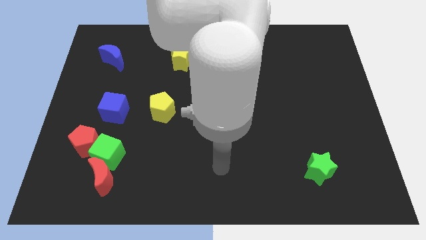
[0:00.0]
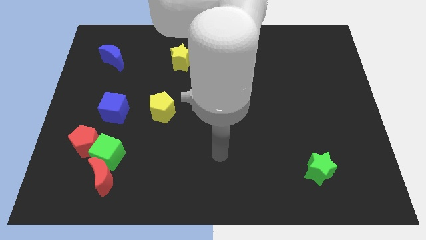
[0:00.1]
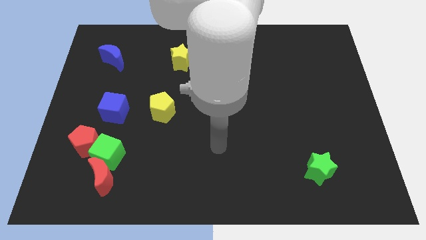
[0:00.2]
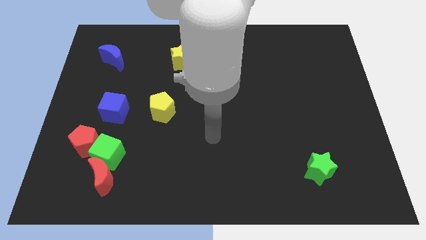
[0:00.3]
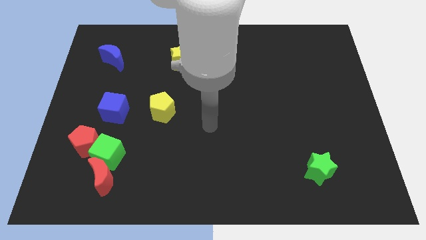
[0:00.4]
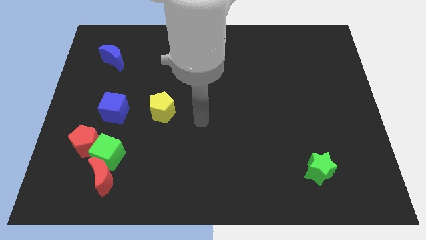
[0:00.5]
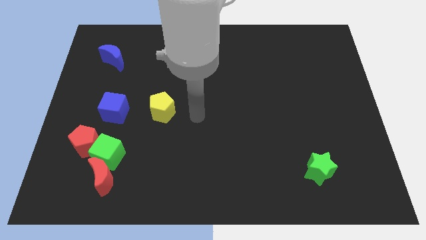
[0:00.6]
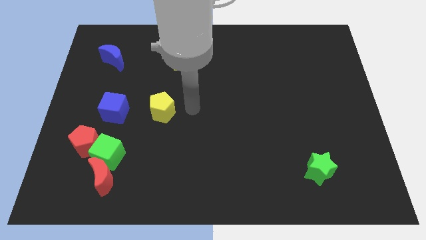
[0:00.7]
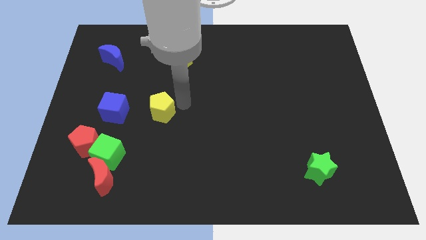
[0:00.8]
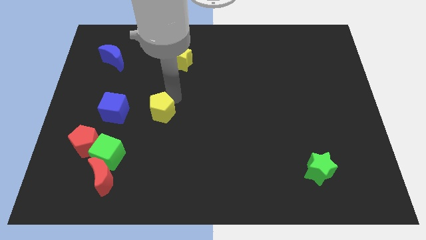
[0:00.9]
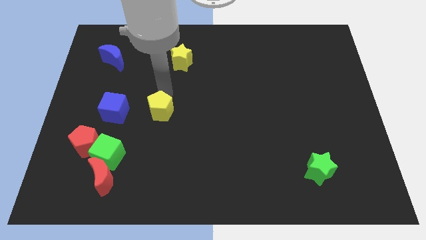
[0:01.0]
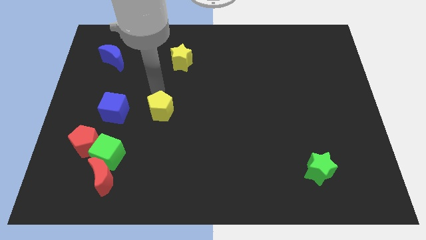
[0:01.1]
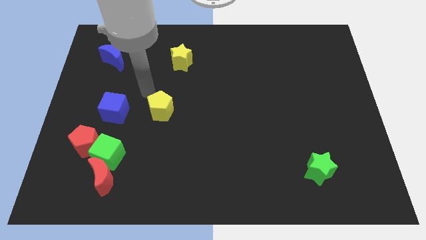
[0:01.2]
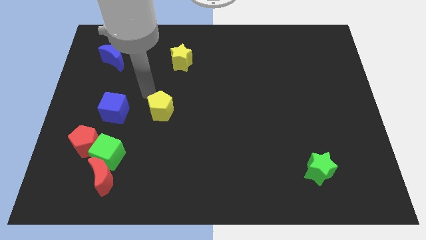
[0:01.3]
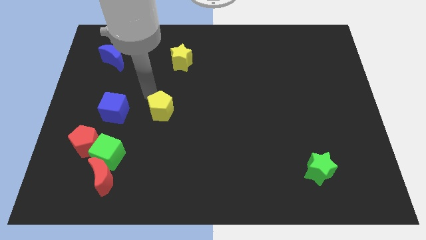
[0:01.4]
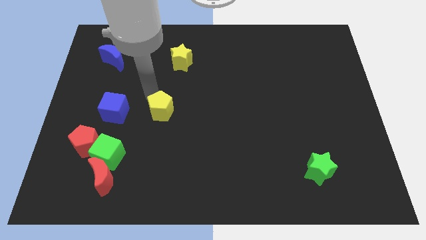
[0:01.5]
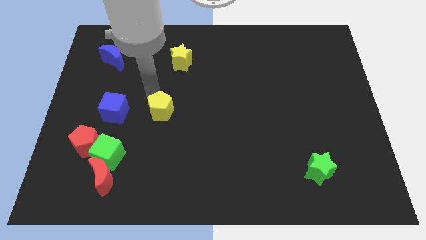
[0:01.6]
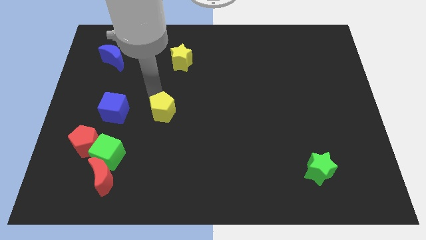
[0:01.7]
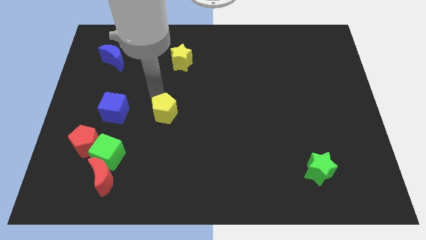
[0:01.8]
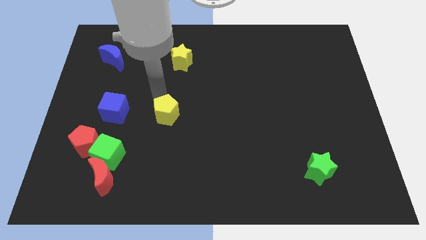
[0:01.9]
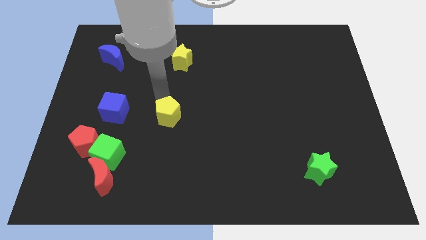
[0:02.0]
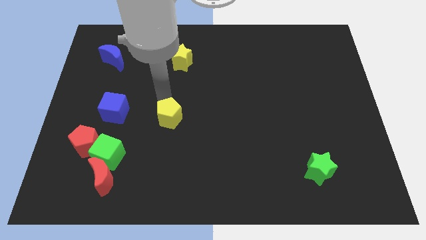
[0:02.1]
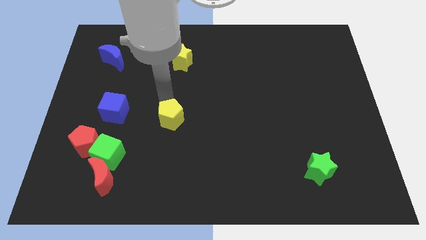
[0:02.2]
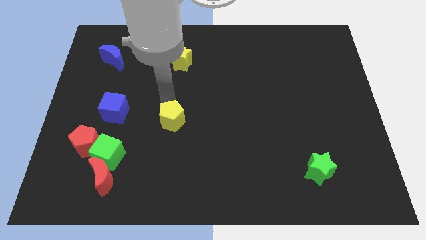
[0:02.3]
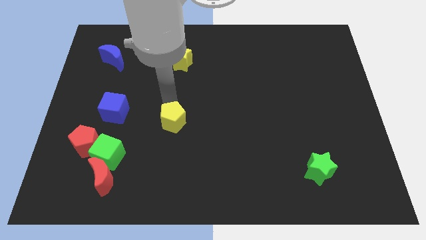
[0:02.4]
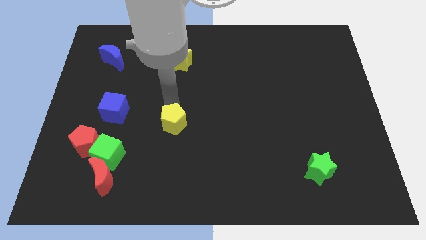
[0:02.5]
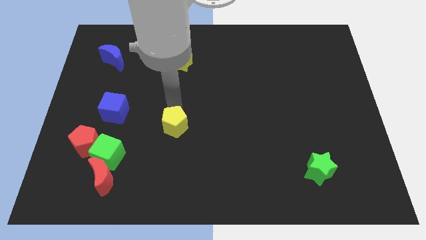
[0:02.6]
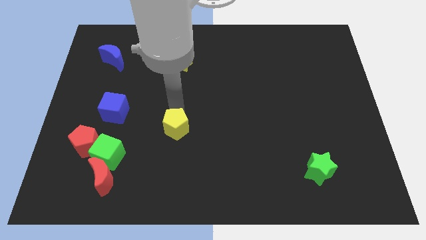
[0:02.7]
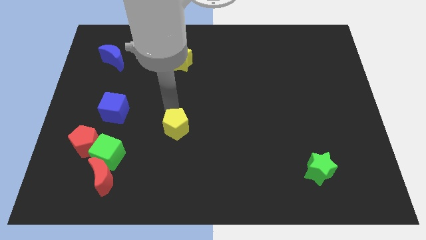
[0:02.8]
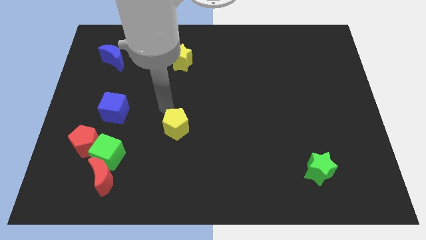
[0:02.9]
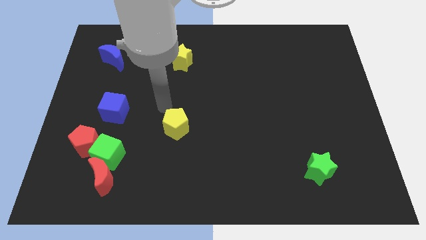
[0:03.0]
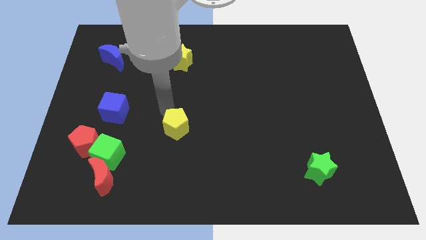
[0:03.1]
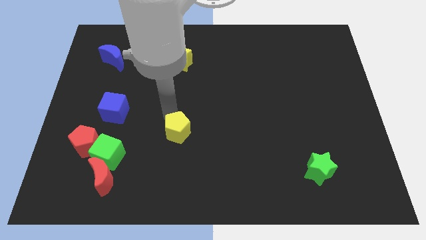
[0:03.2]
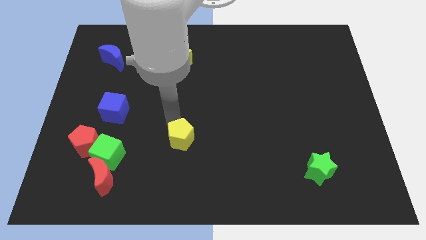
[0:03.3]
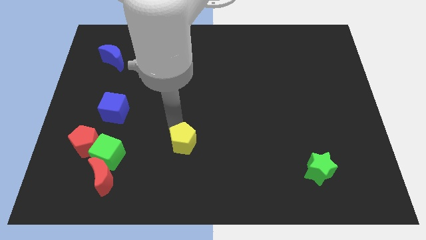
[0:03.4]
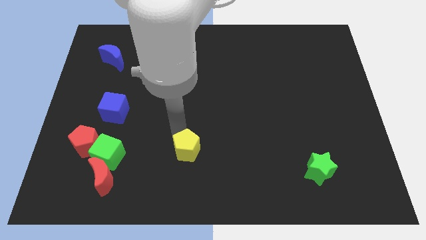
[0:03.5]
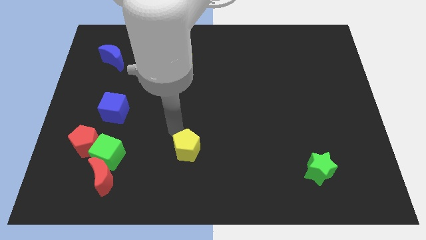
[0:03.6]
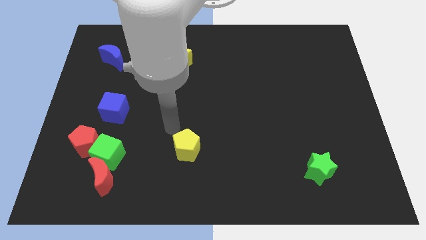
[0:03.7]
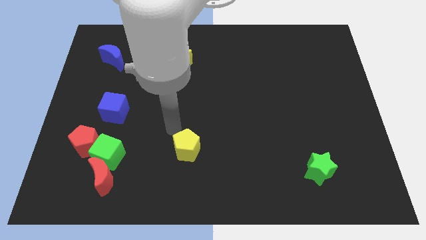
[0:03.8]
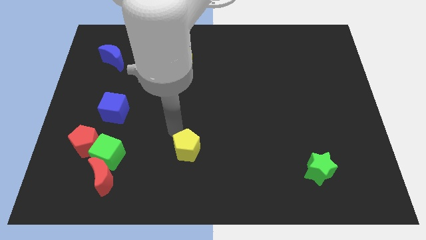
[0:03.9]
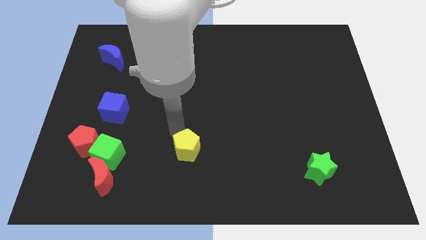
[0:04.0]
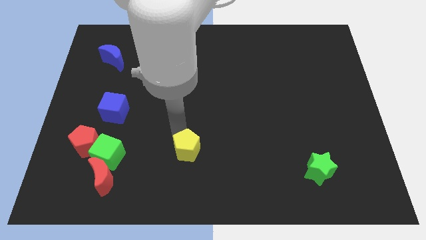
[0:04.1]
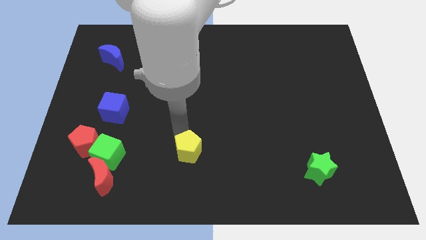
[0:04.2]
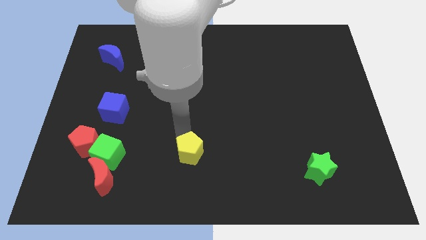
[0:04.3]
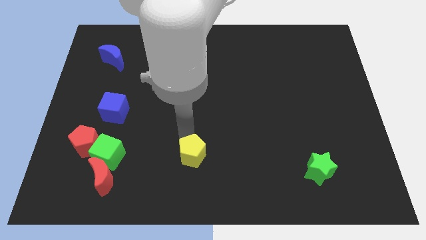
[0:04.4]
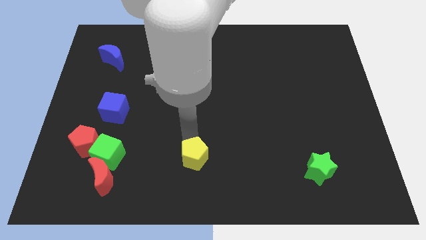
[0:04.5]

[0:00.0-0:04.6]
slide the yellow pentagon to the bottom

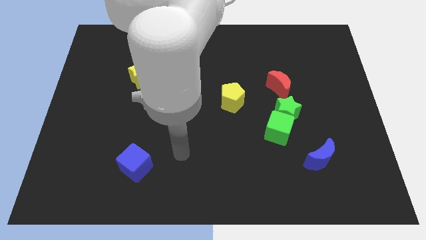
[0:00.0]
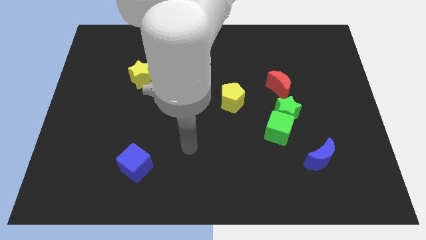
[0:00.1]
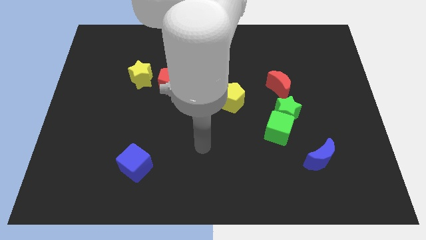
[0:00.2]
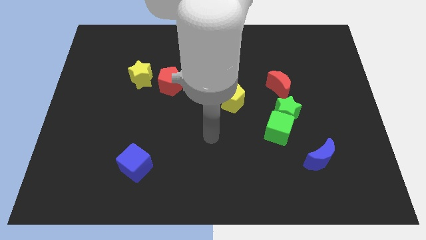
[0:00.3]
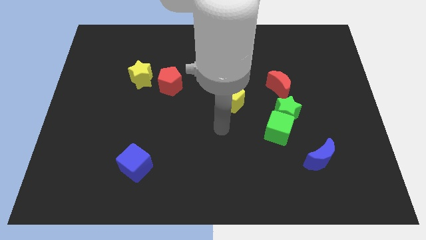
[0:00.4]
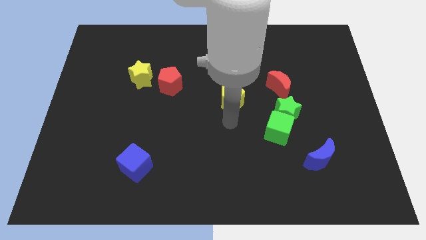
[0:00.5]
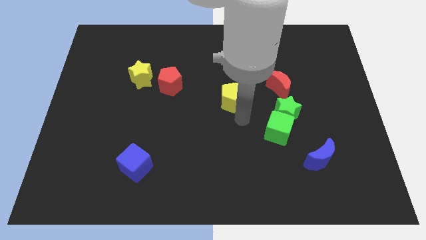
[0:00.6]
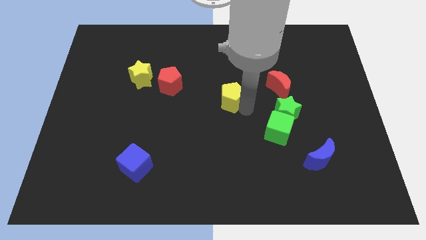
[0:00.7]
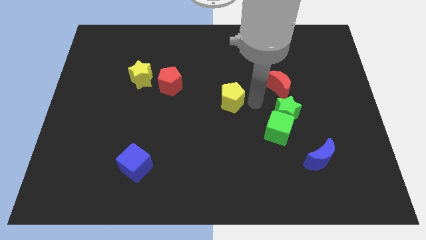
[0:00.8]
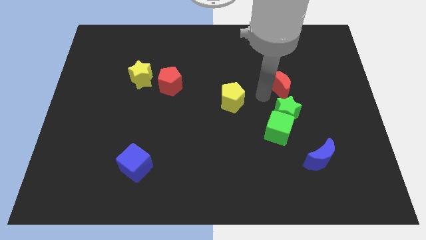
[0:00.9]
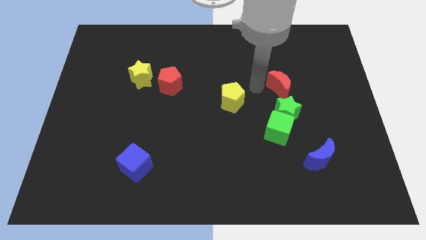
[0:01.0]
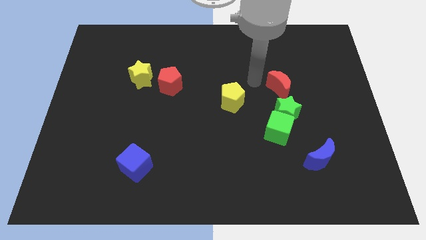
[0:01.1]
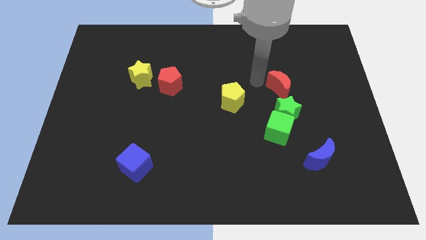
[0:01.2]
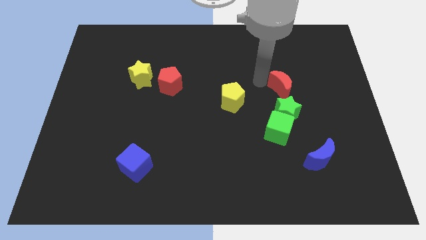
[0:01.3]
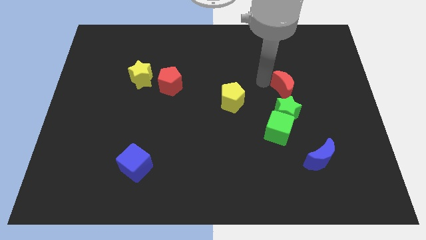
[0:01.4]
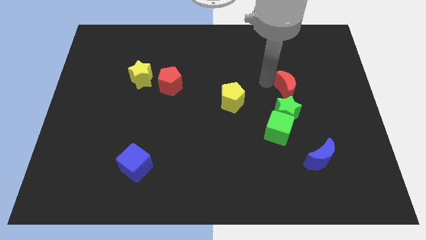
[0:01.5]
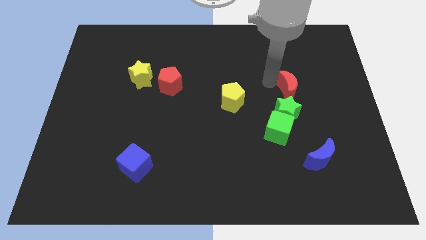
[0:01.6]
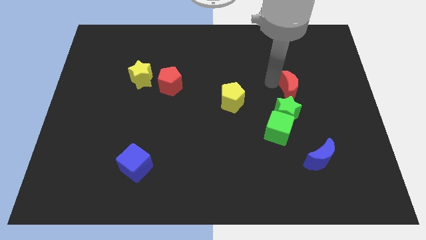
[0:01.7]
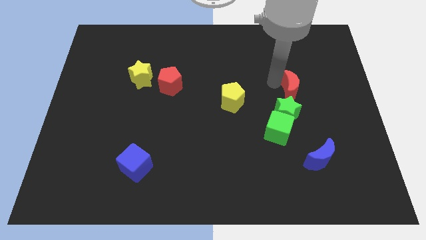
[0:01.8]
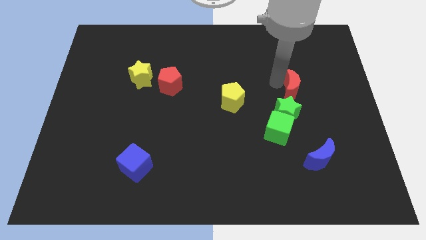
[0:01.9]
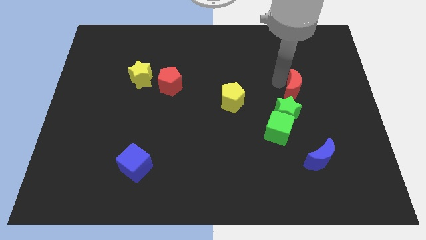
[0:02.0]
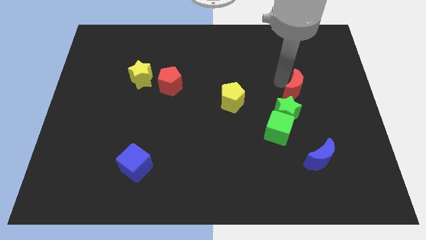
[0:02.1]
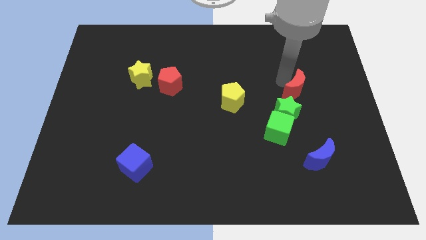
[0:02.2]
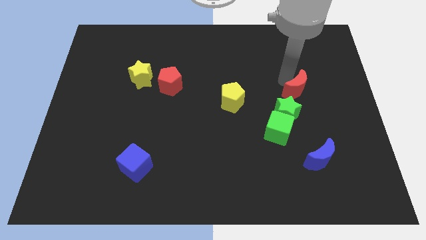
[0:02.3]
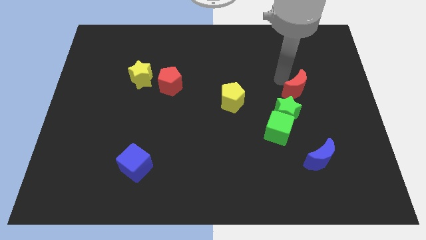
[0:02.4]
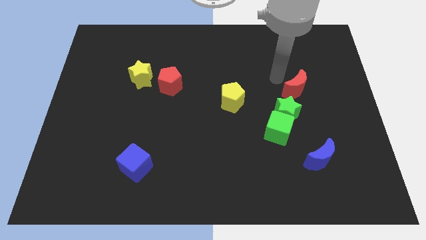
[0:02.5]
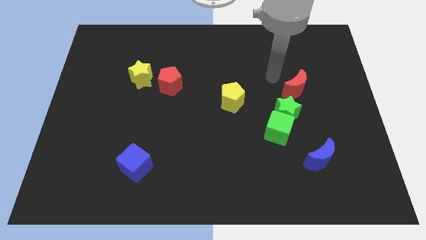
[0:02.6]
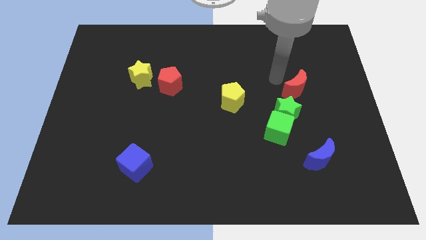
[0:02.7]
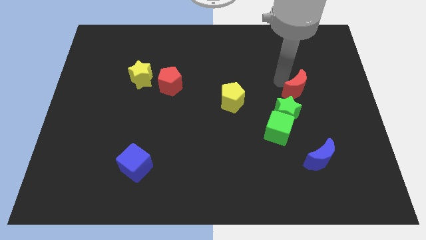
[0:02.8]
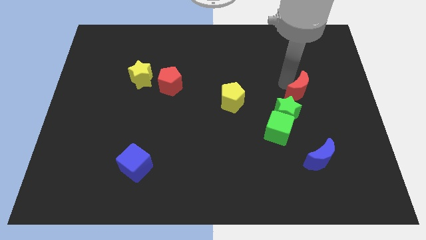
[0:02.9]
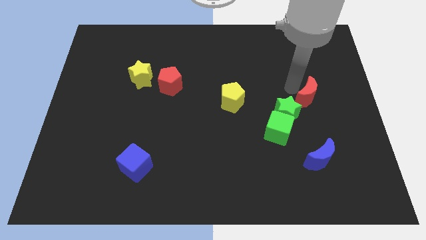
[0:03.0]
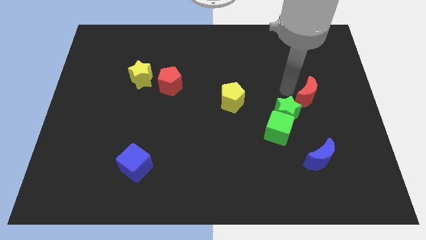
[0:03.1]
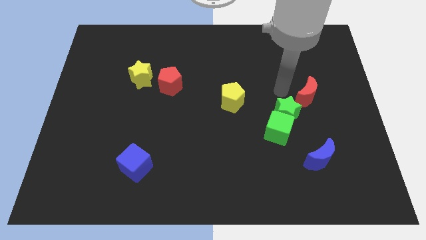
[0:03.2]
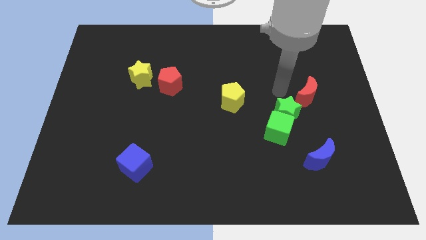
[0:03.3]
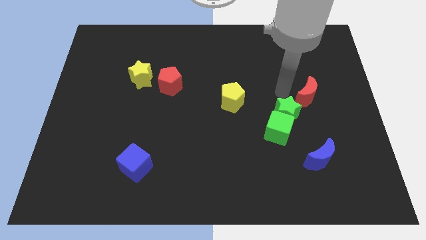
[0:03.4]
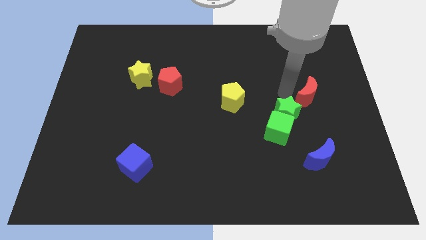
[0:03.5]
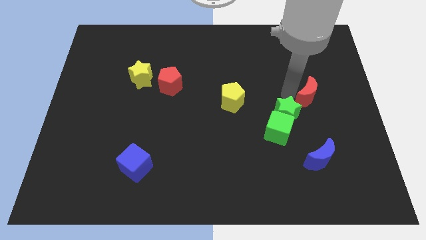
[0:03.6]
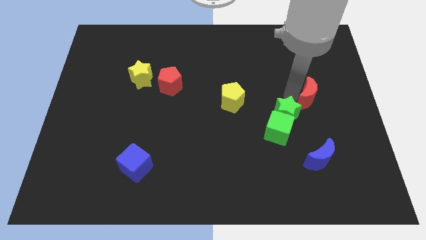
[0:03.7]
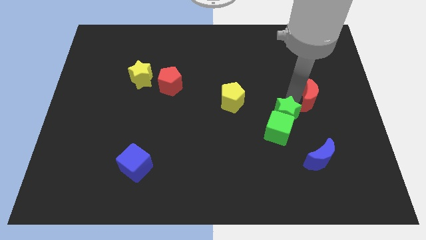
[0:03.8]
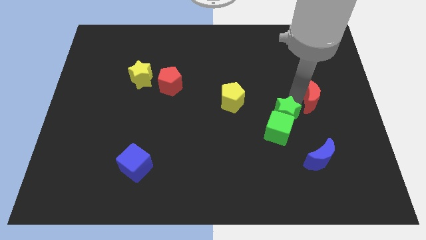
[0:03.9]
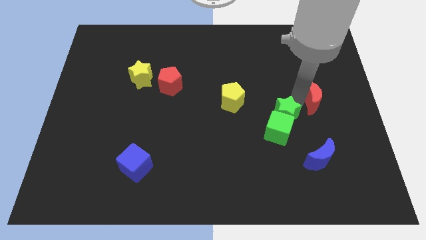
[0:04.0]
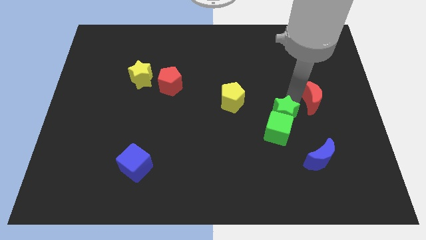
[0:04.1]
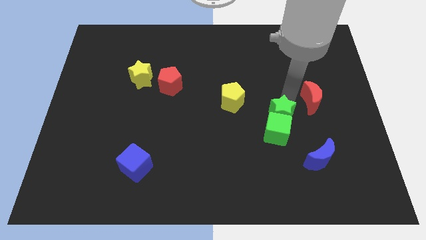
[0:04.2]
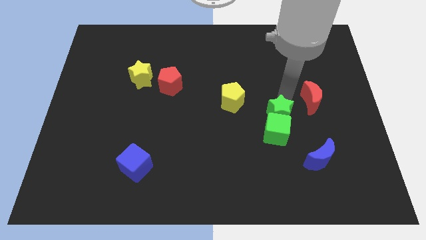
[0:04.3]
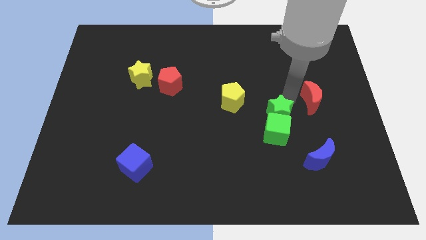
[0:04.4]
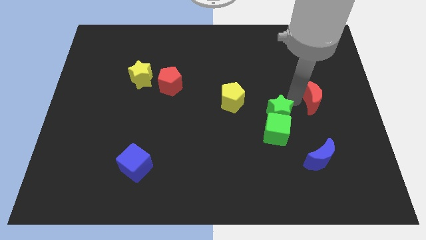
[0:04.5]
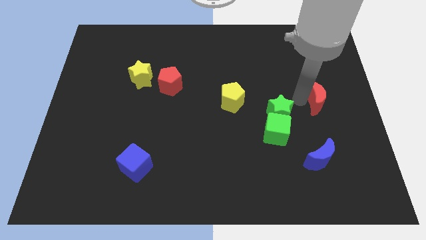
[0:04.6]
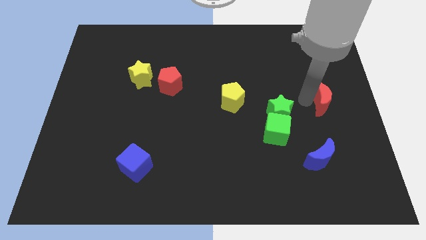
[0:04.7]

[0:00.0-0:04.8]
move the red moon to the center right
